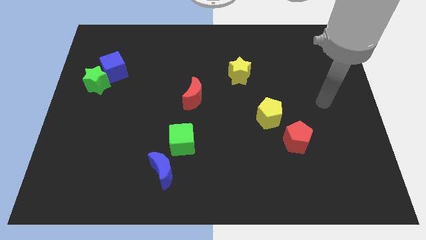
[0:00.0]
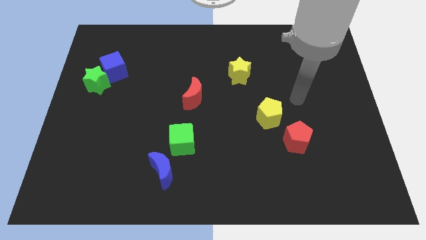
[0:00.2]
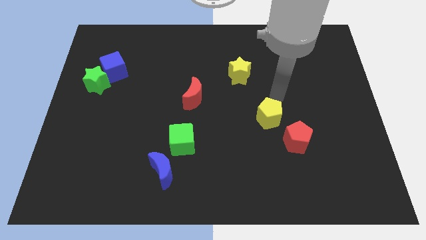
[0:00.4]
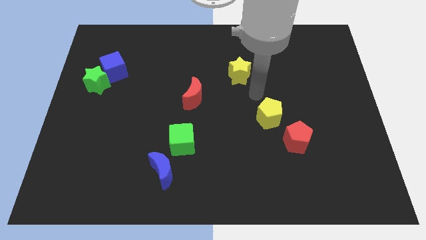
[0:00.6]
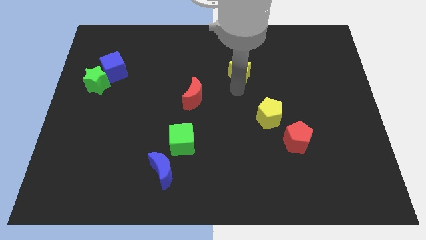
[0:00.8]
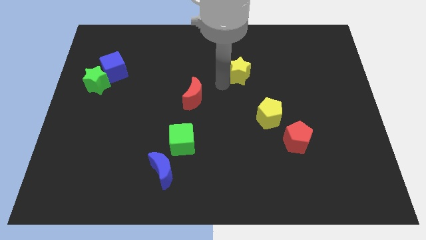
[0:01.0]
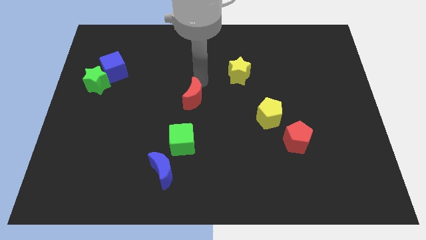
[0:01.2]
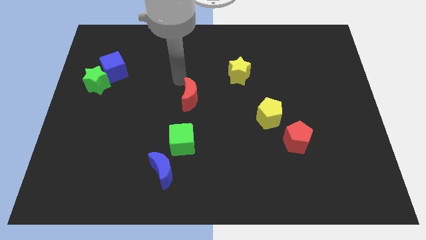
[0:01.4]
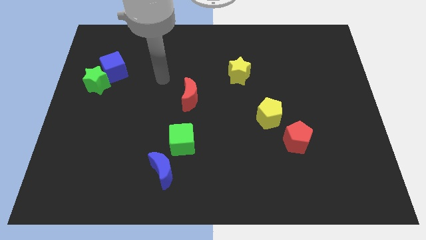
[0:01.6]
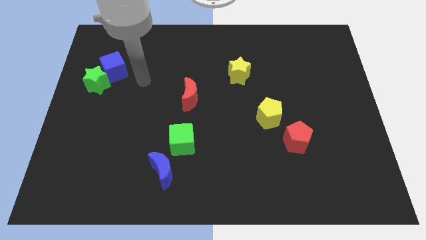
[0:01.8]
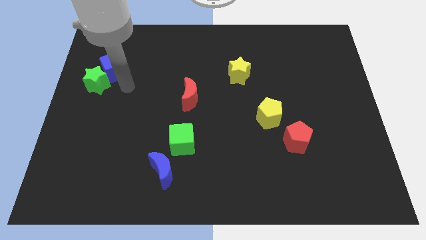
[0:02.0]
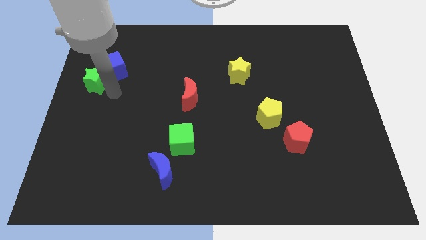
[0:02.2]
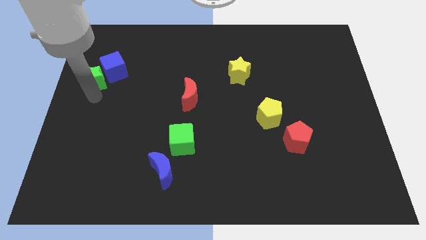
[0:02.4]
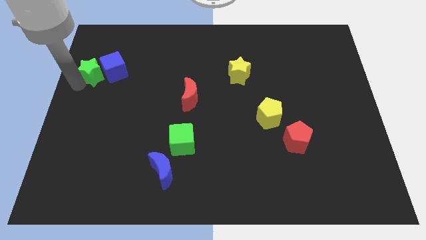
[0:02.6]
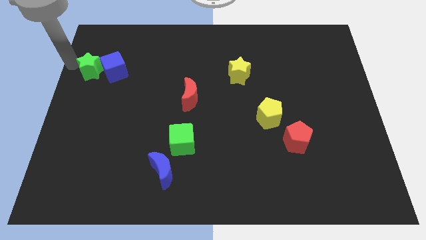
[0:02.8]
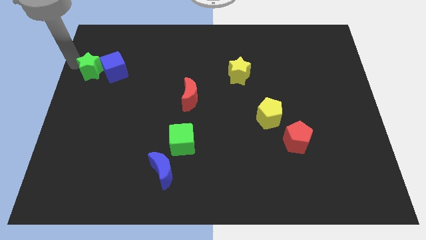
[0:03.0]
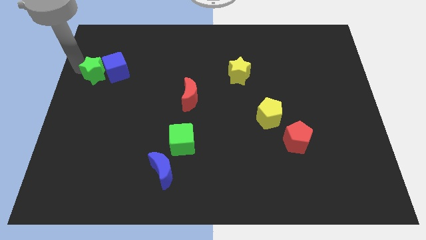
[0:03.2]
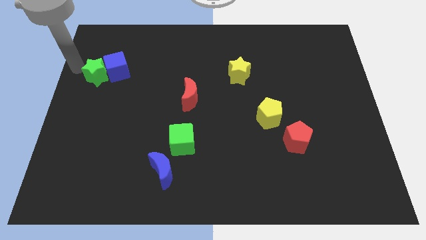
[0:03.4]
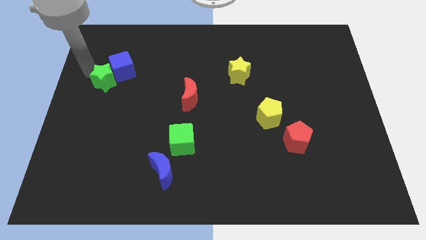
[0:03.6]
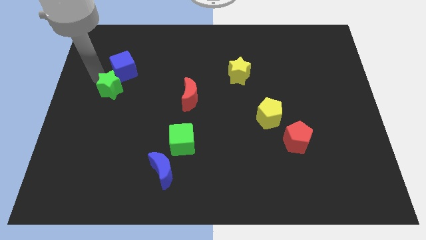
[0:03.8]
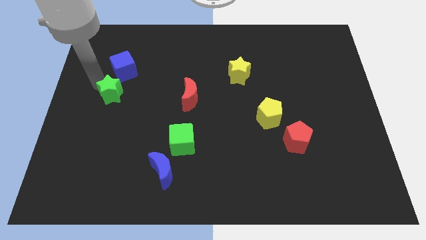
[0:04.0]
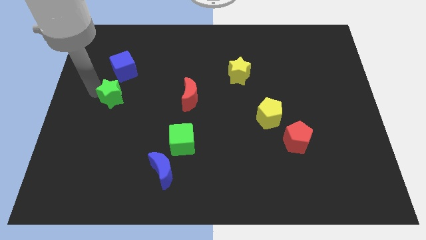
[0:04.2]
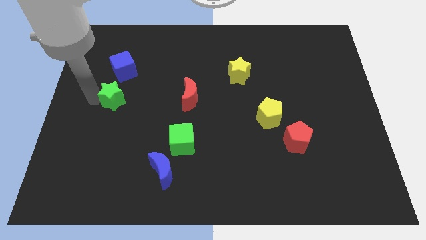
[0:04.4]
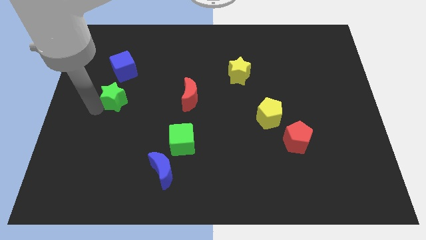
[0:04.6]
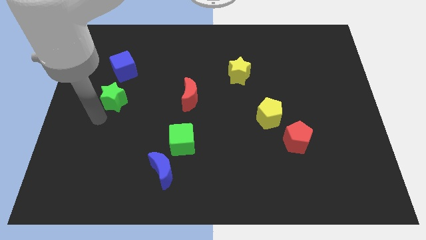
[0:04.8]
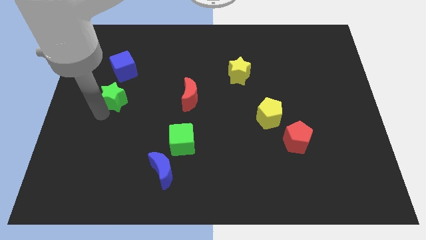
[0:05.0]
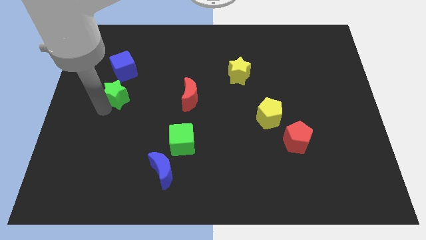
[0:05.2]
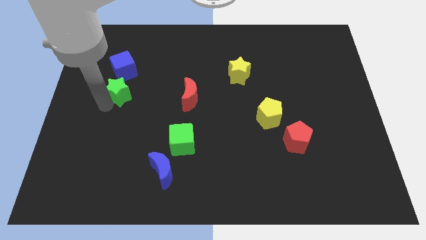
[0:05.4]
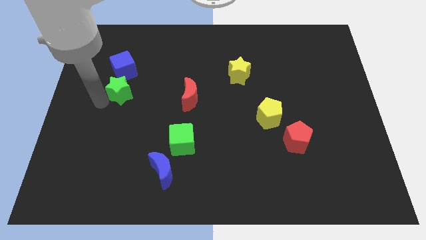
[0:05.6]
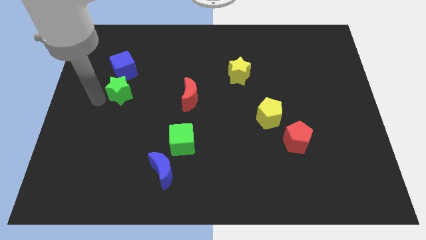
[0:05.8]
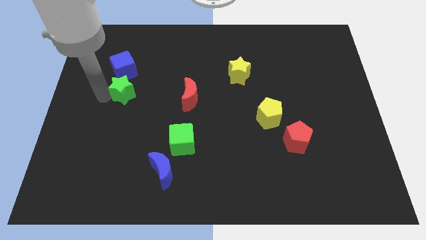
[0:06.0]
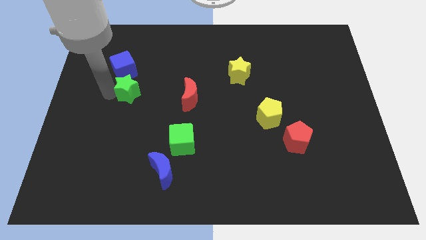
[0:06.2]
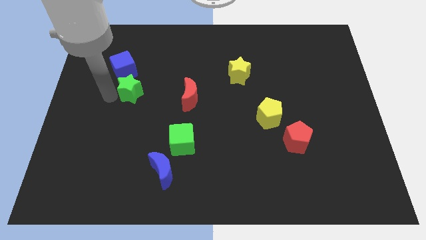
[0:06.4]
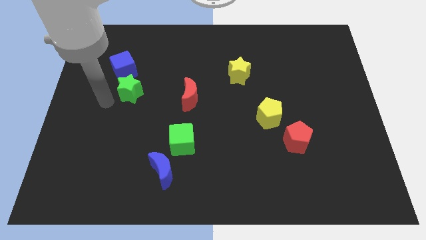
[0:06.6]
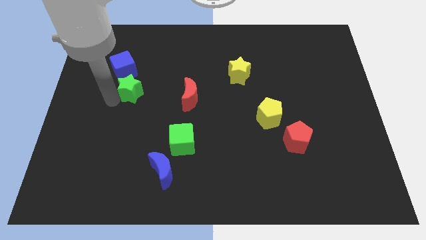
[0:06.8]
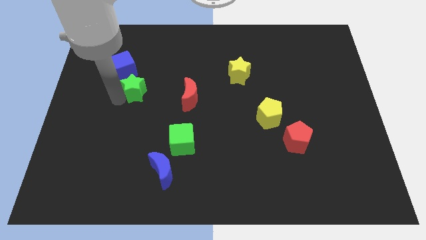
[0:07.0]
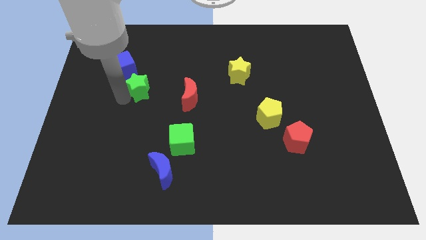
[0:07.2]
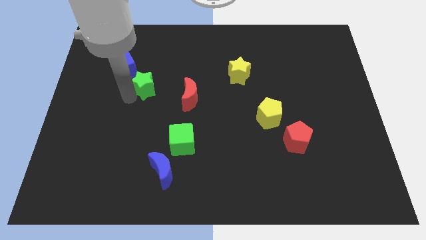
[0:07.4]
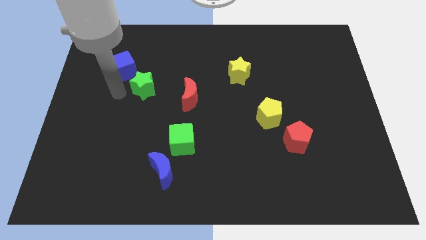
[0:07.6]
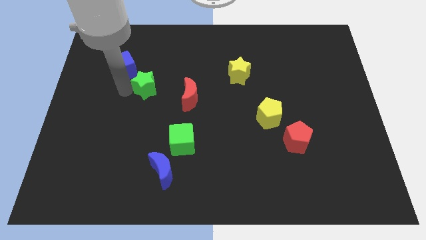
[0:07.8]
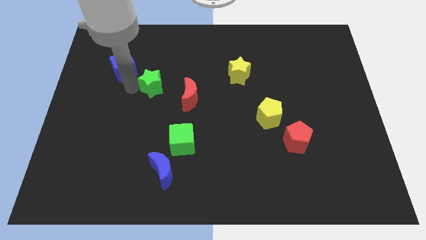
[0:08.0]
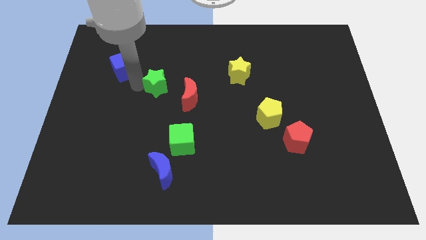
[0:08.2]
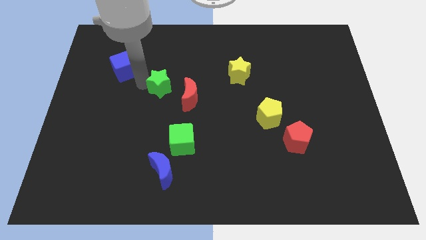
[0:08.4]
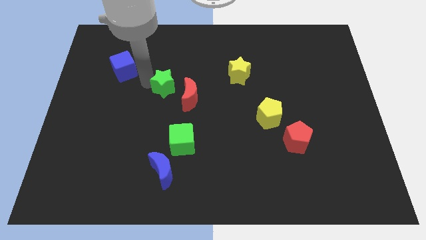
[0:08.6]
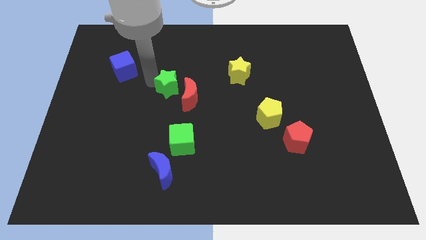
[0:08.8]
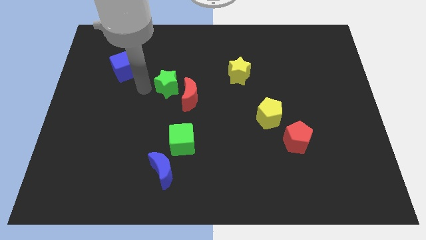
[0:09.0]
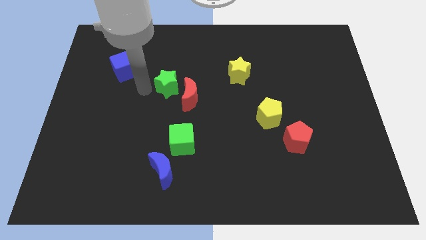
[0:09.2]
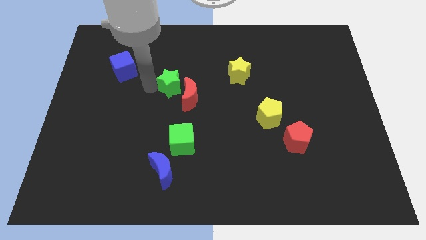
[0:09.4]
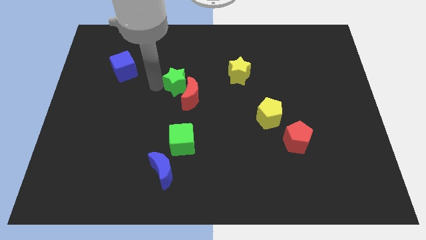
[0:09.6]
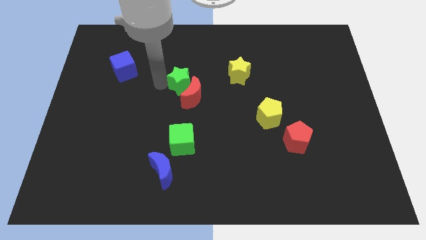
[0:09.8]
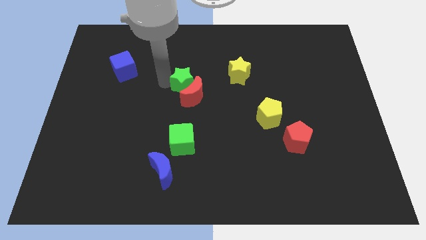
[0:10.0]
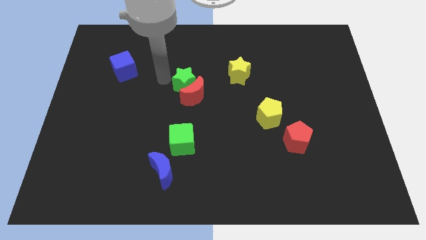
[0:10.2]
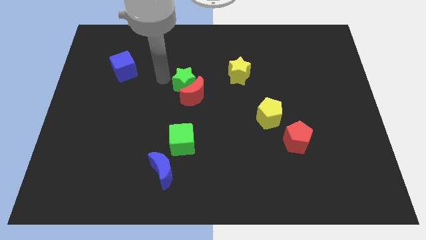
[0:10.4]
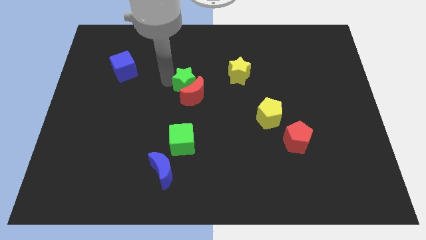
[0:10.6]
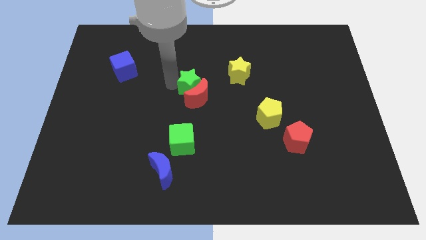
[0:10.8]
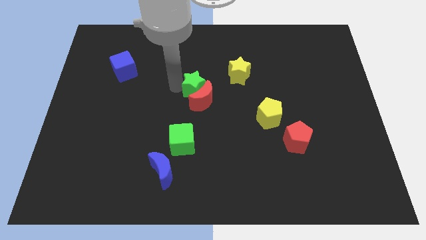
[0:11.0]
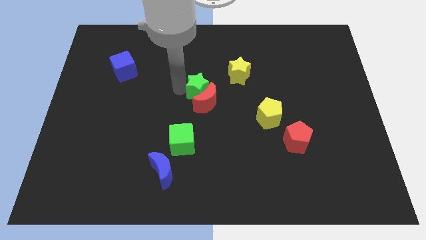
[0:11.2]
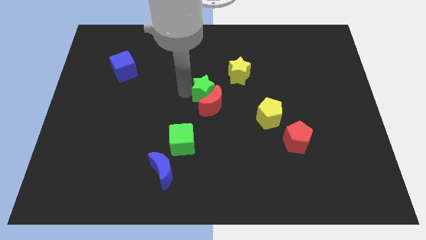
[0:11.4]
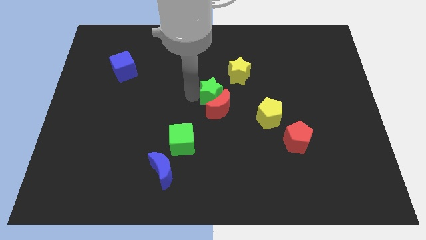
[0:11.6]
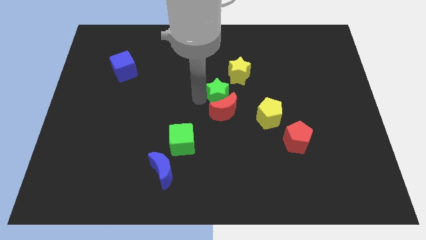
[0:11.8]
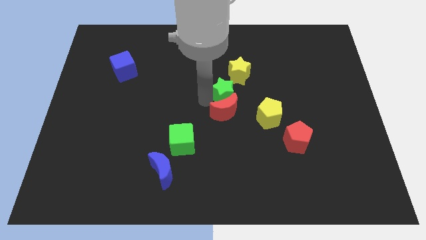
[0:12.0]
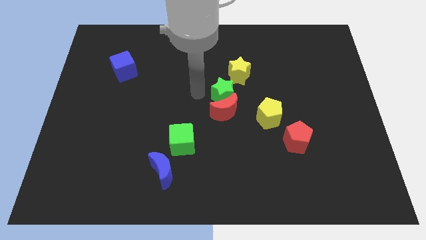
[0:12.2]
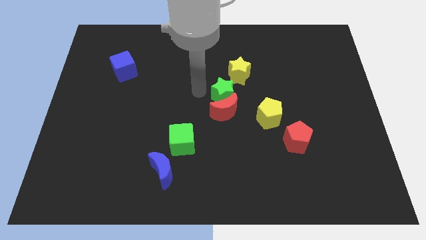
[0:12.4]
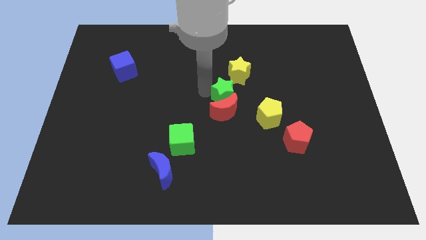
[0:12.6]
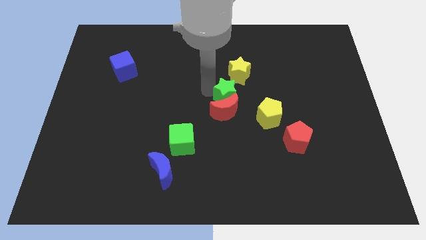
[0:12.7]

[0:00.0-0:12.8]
put the green star diagonally up and to the left of the yellow pentagon

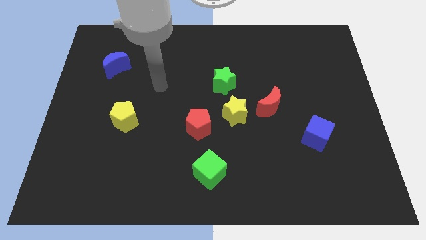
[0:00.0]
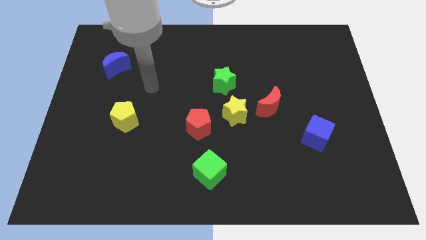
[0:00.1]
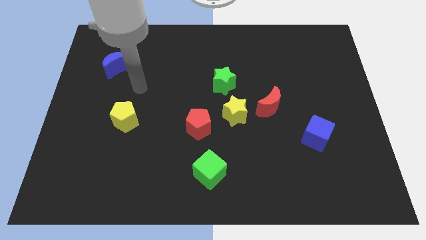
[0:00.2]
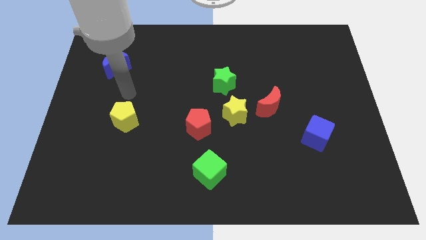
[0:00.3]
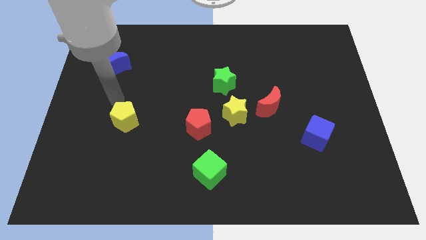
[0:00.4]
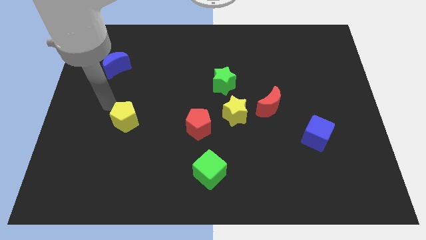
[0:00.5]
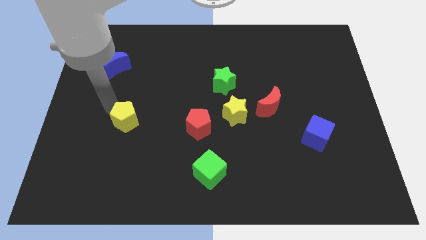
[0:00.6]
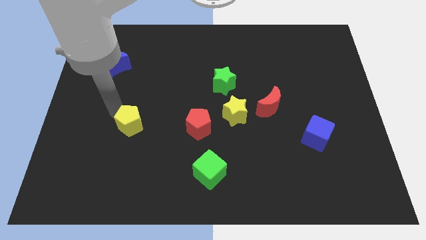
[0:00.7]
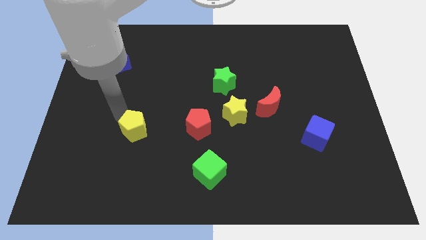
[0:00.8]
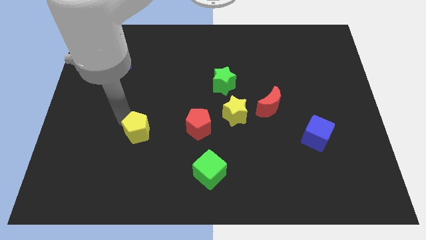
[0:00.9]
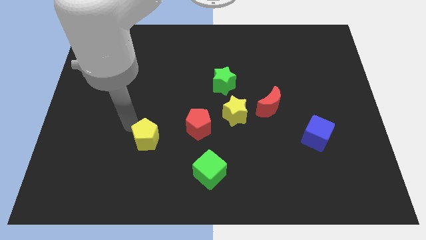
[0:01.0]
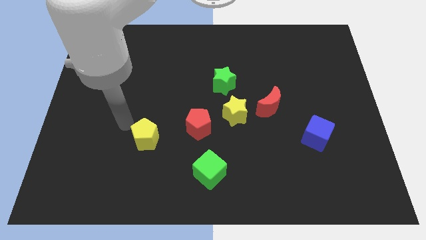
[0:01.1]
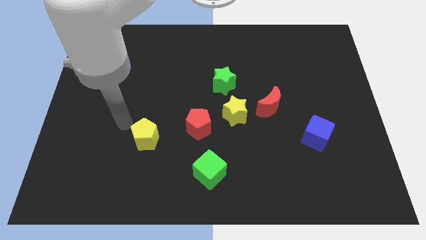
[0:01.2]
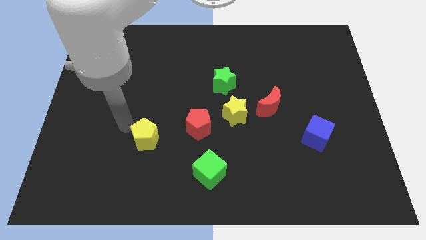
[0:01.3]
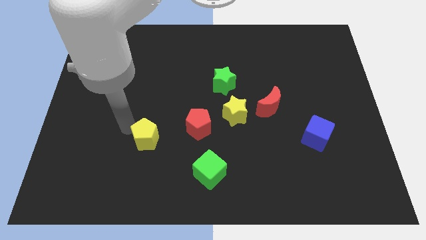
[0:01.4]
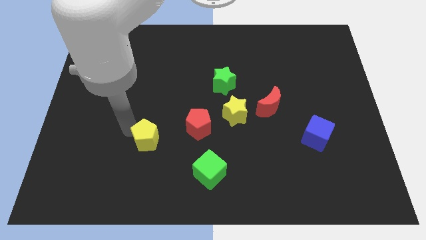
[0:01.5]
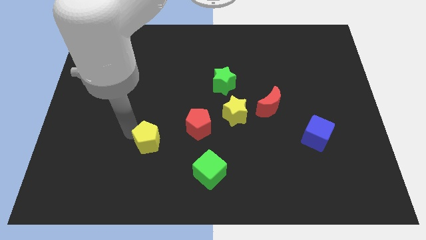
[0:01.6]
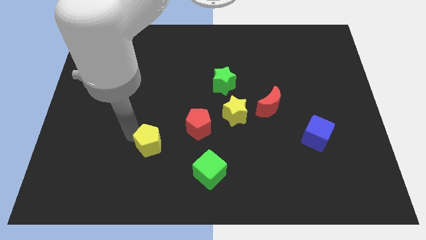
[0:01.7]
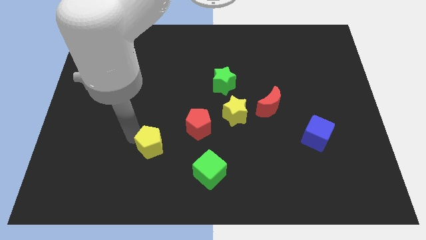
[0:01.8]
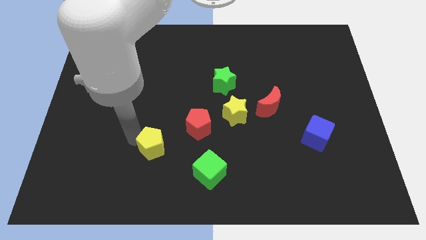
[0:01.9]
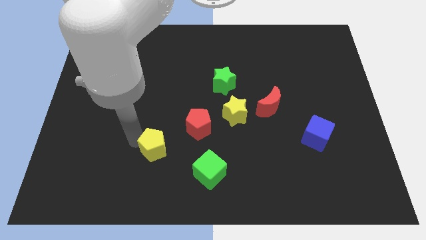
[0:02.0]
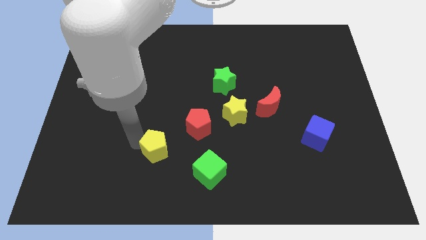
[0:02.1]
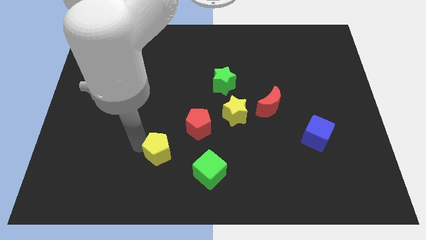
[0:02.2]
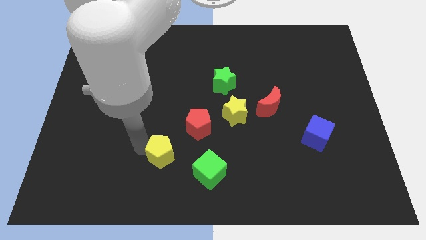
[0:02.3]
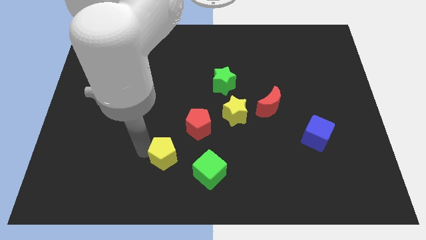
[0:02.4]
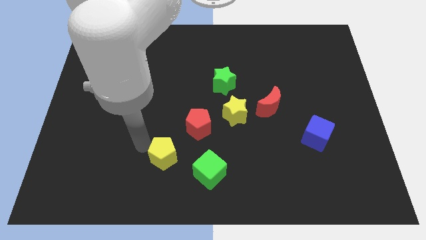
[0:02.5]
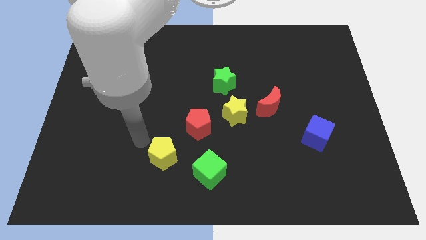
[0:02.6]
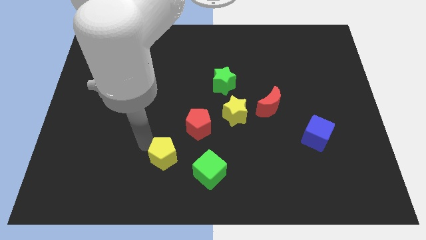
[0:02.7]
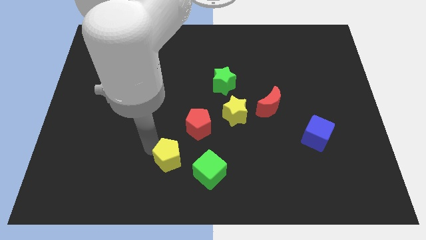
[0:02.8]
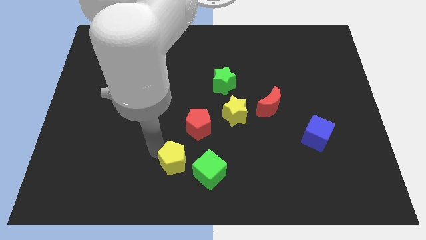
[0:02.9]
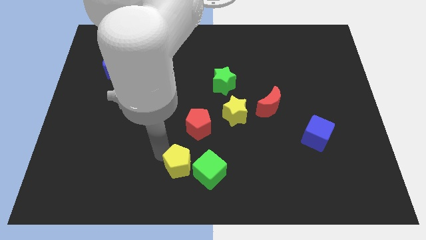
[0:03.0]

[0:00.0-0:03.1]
slide the yellow pentagon below the red pentagon
